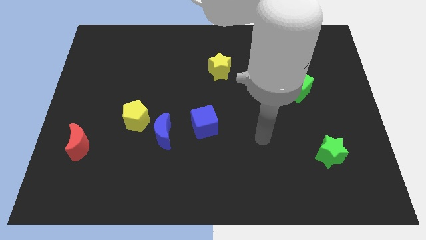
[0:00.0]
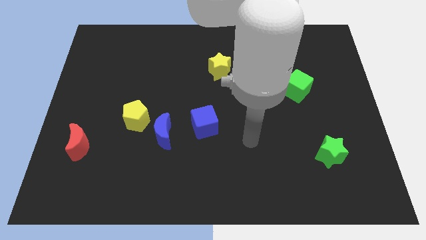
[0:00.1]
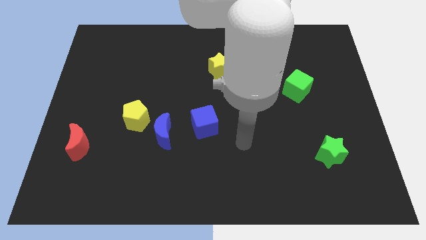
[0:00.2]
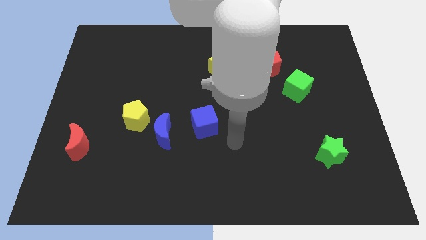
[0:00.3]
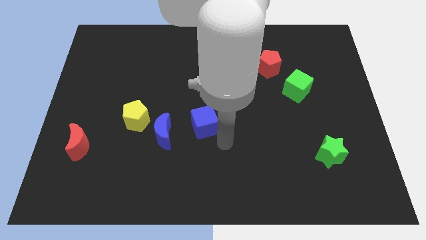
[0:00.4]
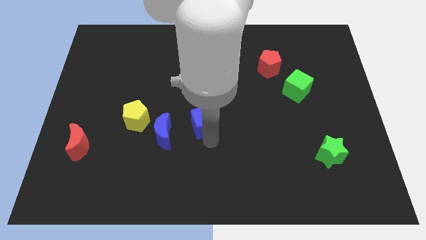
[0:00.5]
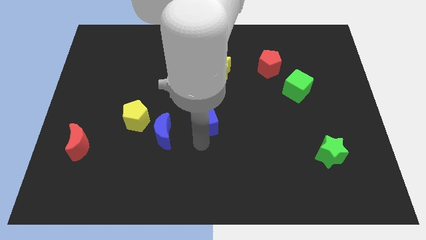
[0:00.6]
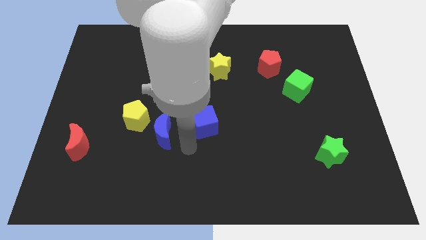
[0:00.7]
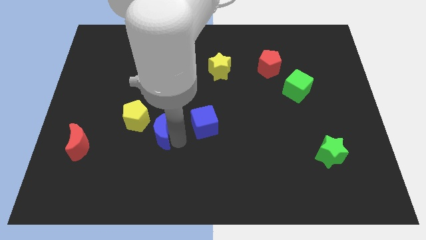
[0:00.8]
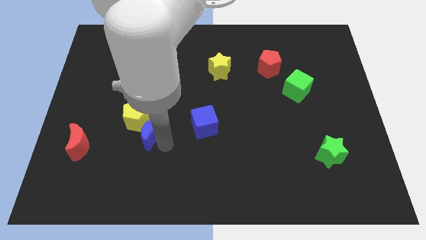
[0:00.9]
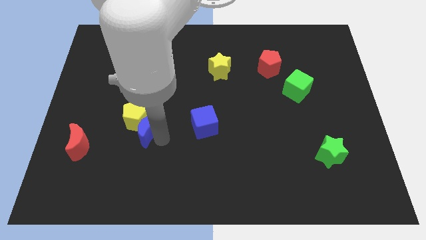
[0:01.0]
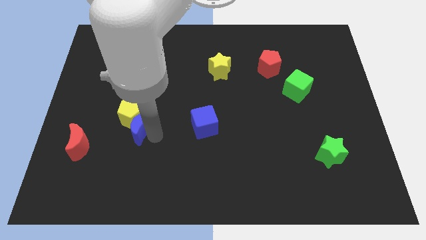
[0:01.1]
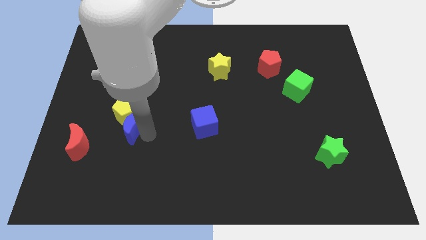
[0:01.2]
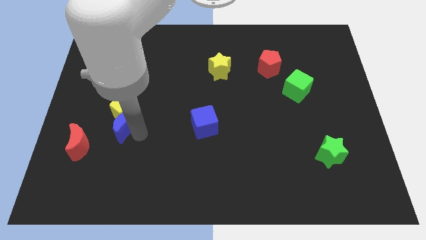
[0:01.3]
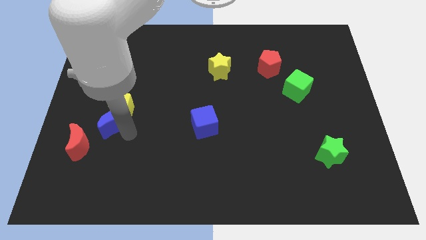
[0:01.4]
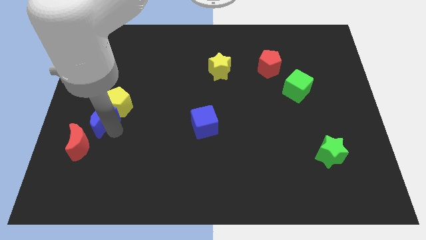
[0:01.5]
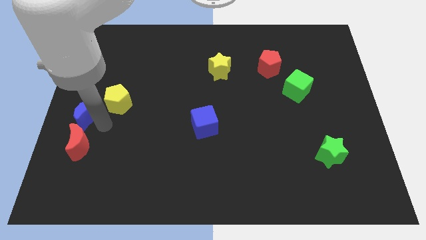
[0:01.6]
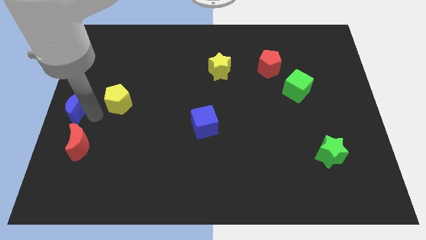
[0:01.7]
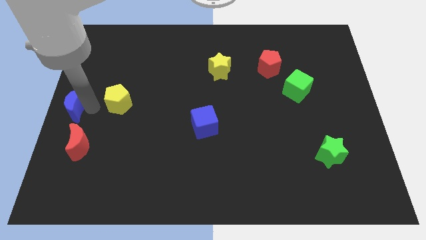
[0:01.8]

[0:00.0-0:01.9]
pull the yellow pentagon apart from the blue moon

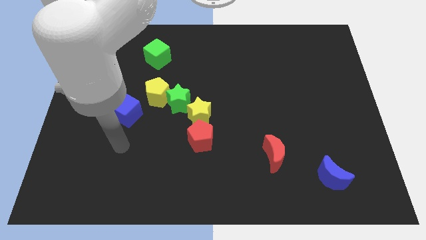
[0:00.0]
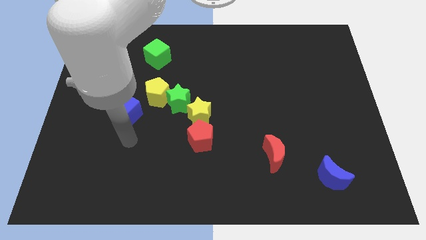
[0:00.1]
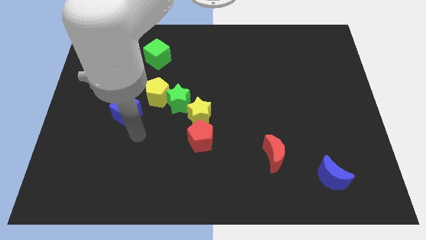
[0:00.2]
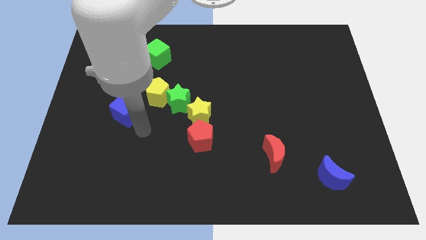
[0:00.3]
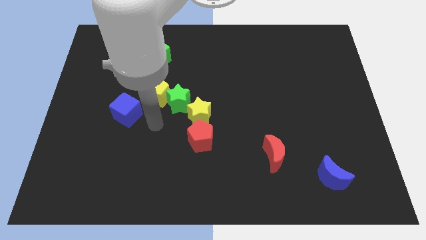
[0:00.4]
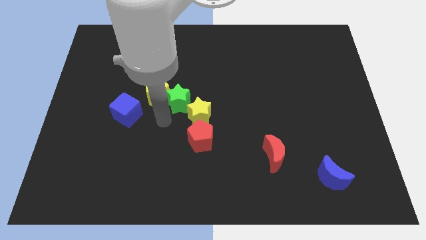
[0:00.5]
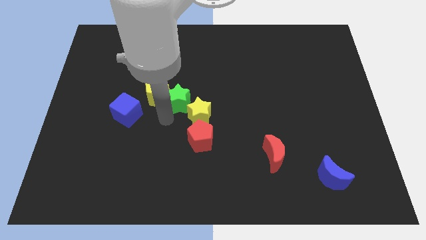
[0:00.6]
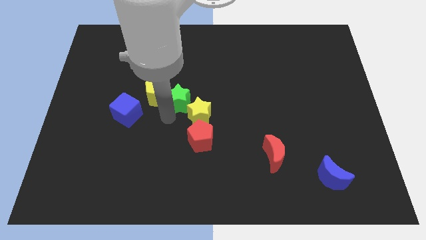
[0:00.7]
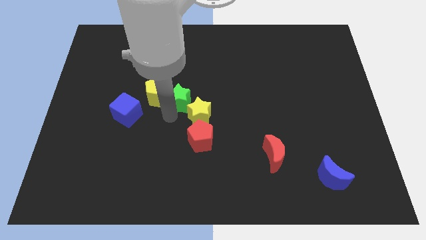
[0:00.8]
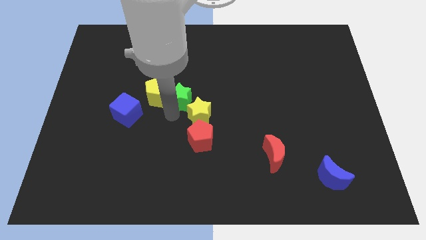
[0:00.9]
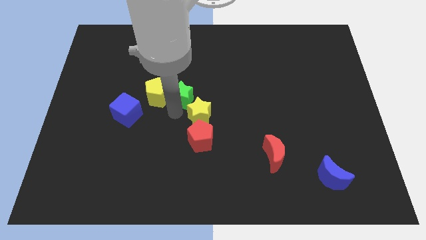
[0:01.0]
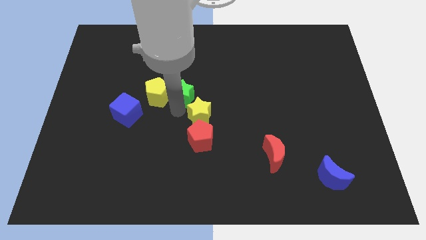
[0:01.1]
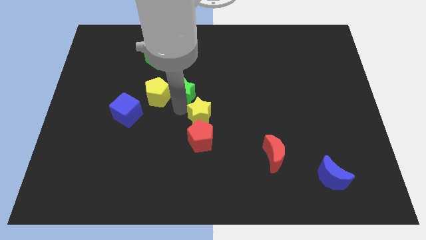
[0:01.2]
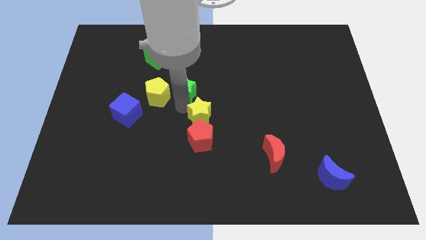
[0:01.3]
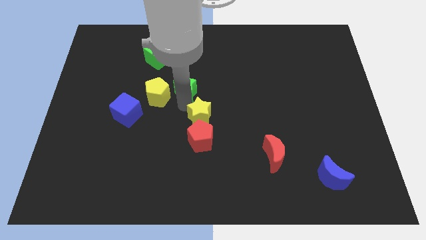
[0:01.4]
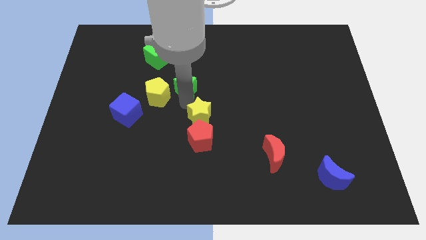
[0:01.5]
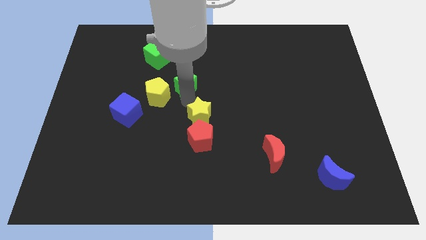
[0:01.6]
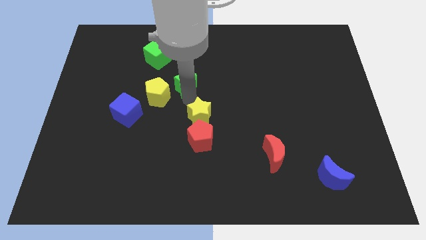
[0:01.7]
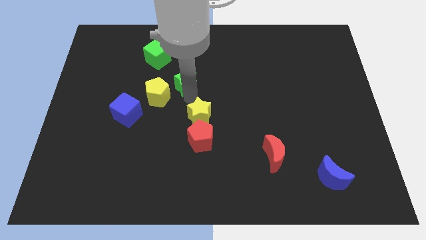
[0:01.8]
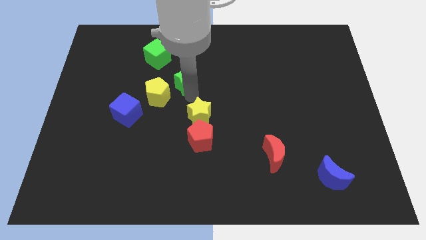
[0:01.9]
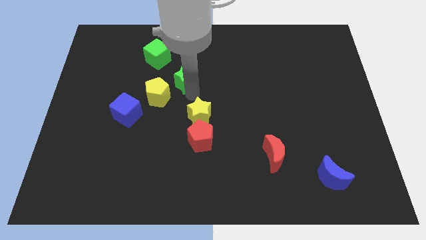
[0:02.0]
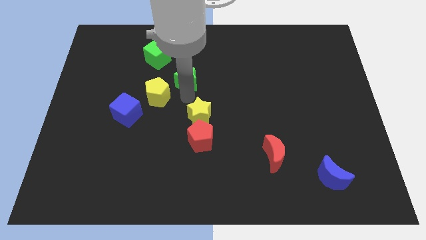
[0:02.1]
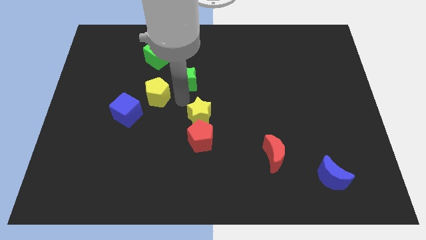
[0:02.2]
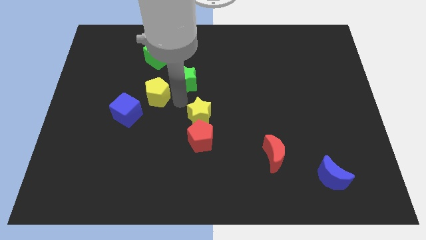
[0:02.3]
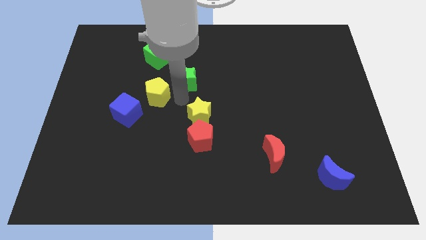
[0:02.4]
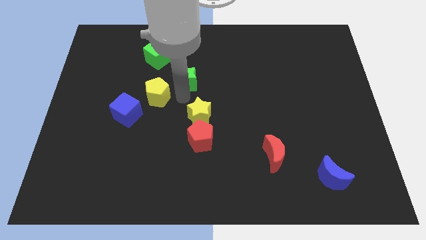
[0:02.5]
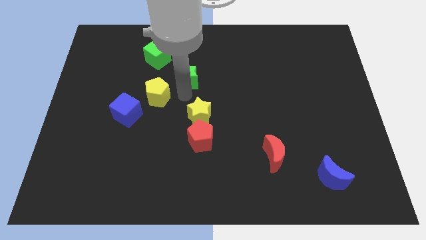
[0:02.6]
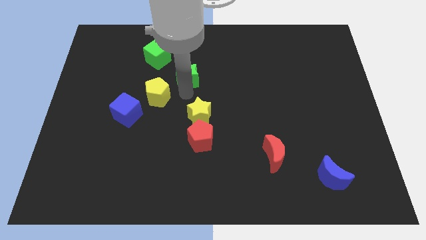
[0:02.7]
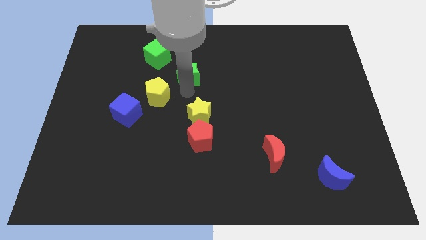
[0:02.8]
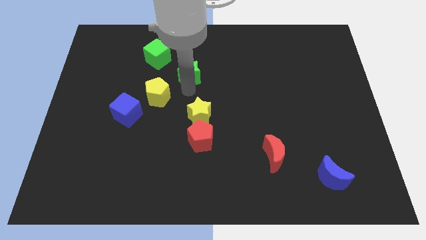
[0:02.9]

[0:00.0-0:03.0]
separate the green star from the yellow pentagon and yellow star

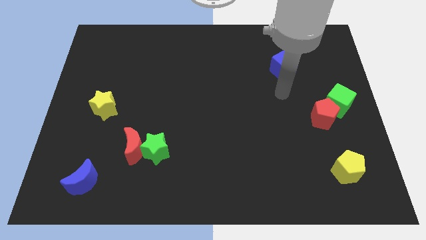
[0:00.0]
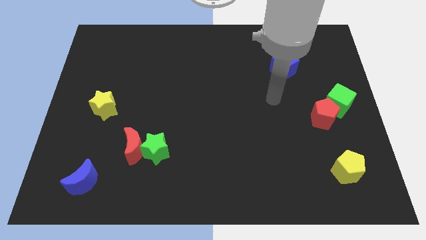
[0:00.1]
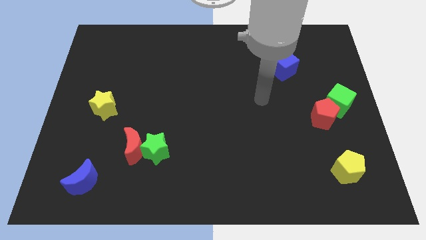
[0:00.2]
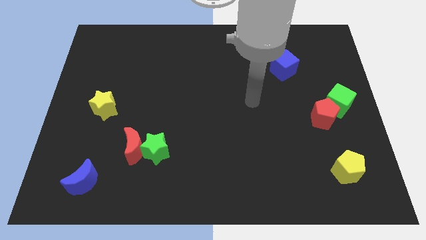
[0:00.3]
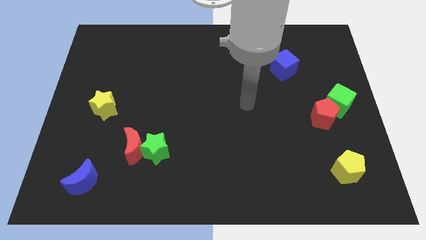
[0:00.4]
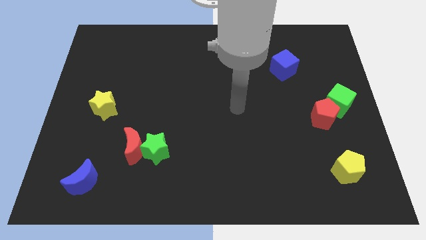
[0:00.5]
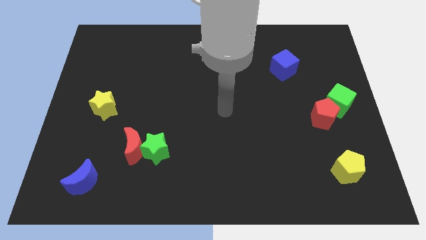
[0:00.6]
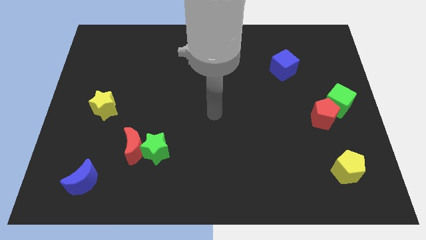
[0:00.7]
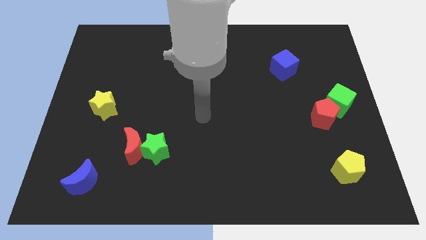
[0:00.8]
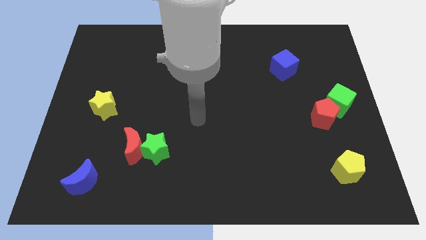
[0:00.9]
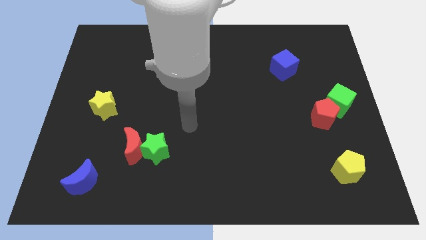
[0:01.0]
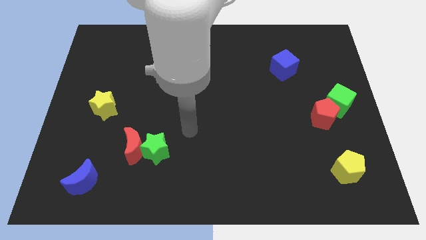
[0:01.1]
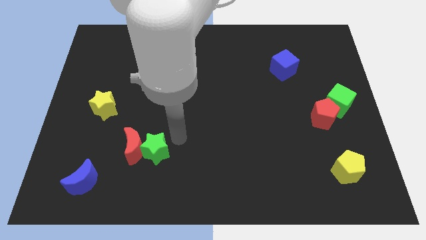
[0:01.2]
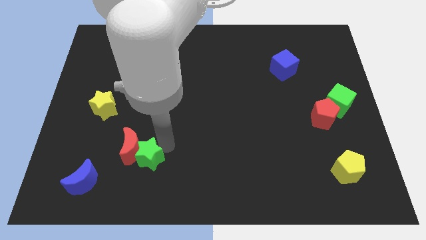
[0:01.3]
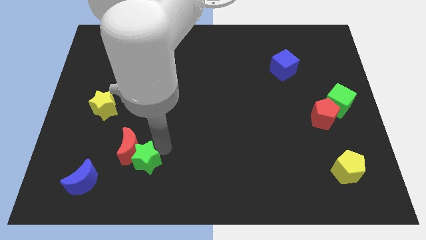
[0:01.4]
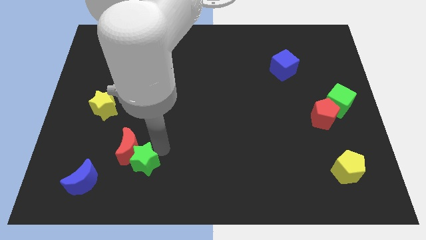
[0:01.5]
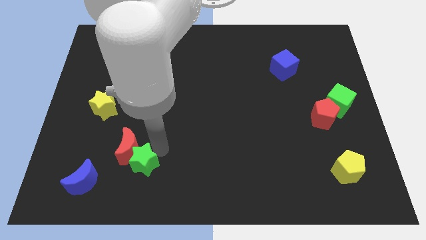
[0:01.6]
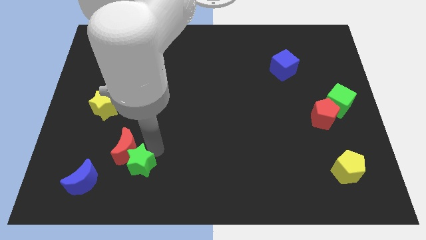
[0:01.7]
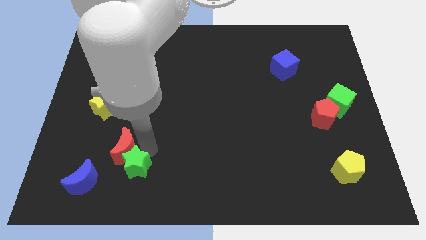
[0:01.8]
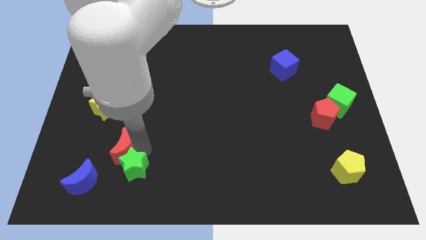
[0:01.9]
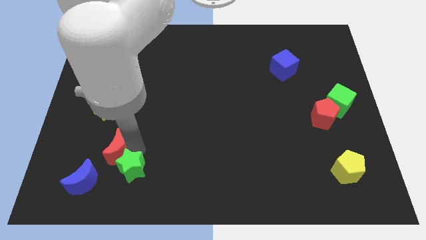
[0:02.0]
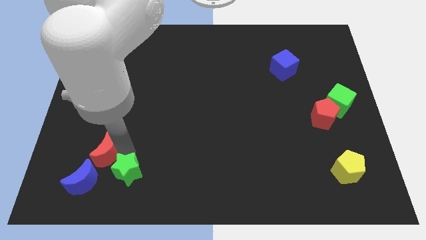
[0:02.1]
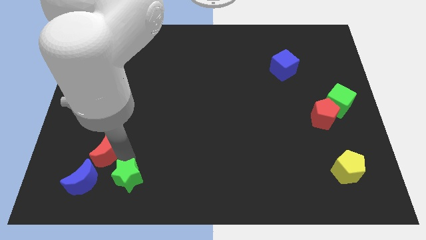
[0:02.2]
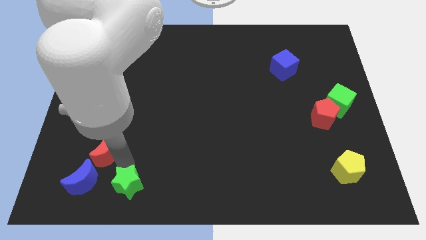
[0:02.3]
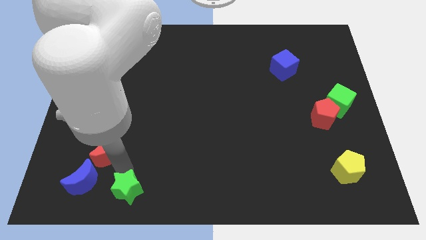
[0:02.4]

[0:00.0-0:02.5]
move the red moon away from the green star

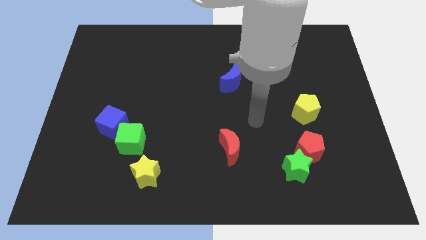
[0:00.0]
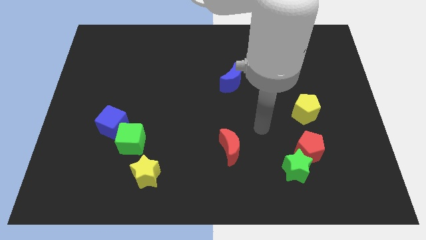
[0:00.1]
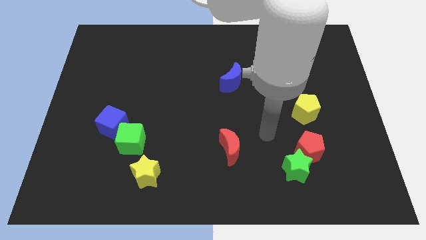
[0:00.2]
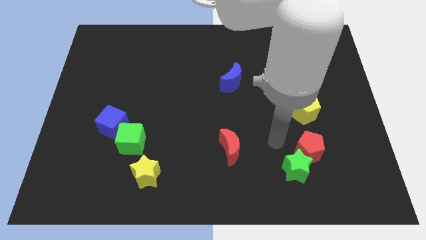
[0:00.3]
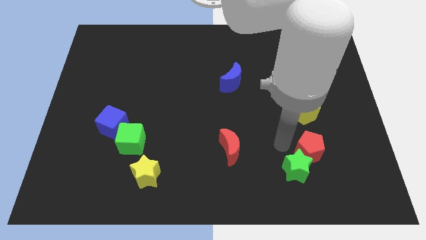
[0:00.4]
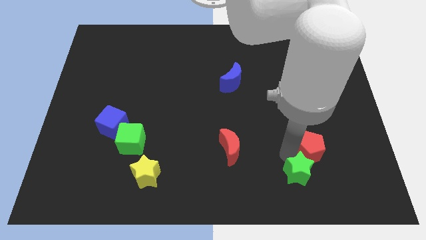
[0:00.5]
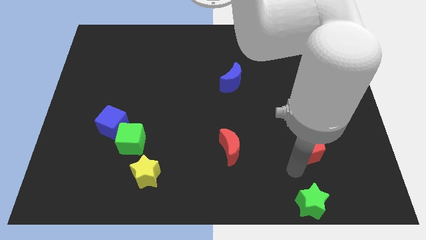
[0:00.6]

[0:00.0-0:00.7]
move the red pentagon away from the green star

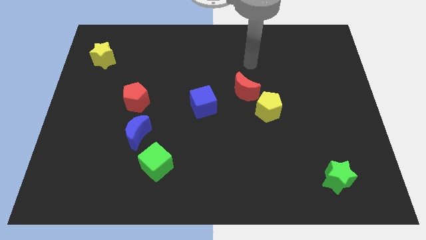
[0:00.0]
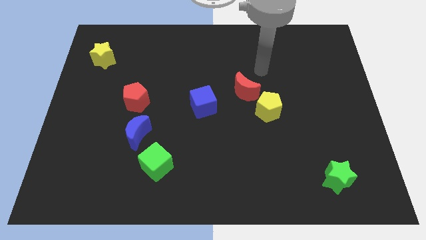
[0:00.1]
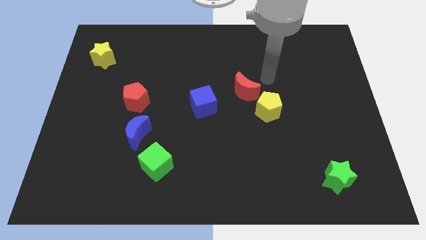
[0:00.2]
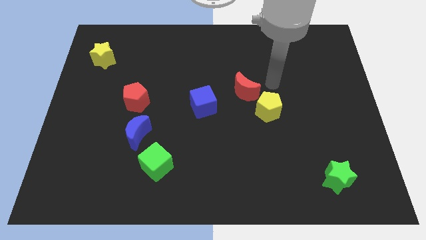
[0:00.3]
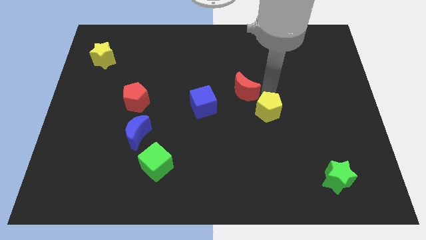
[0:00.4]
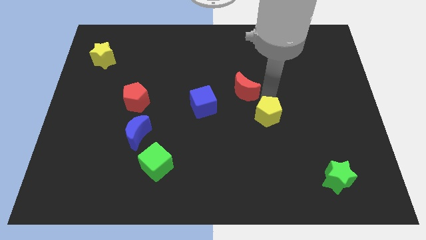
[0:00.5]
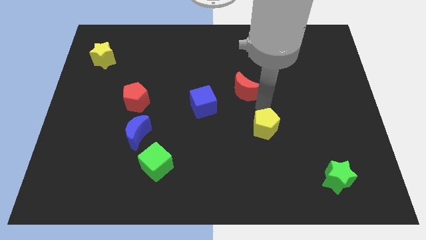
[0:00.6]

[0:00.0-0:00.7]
move the red moon away from the yellow pentagon

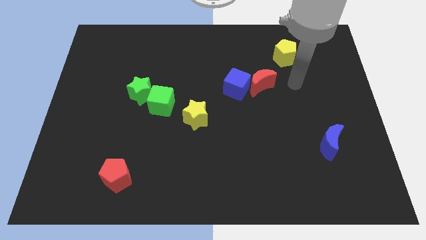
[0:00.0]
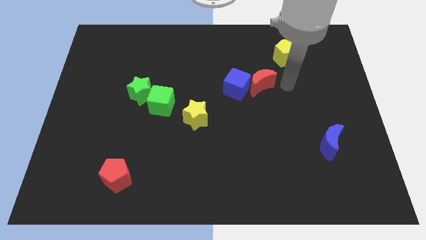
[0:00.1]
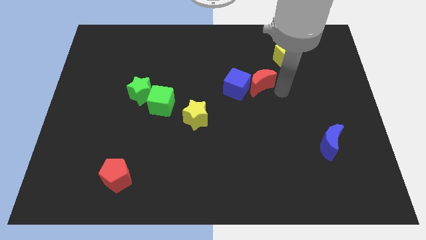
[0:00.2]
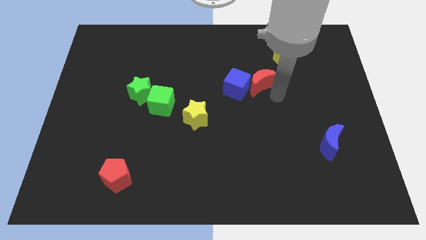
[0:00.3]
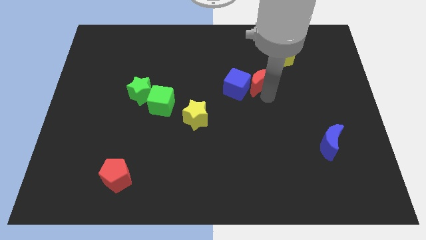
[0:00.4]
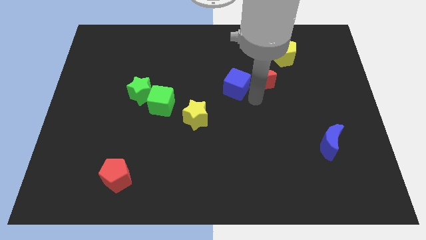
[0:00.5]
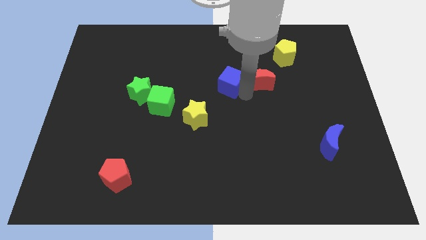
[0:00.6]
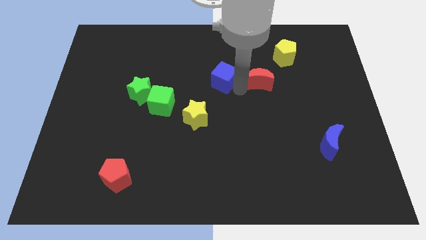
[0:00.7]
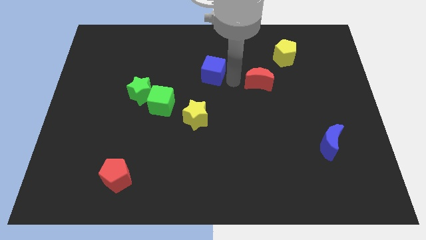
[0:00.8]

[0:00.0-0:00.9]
move the red moon away from the blue cube
